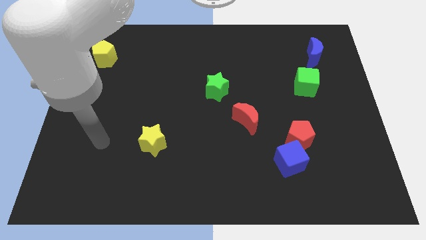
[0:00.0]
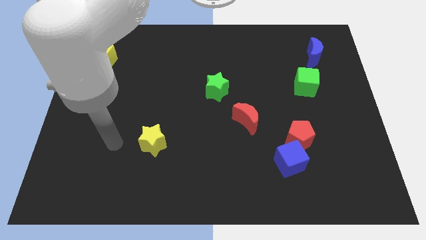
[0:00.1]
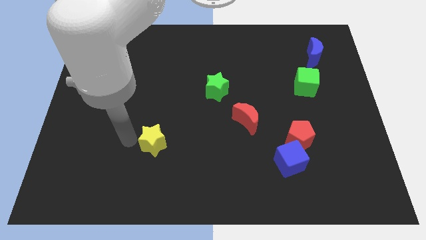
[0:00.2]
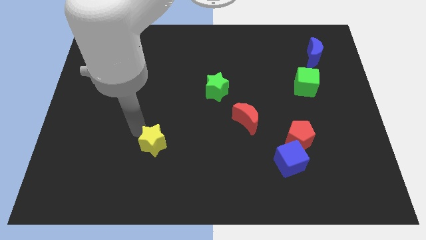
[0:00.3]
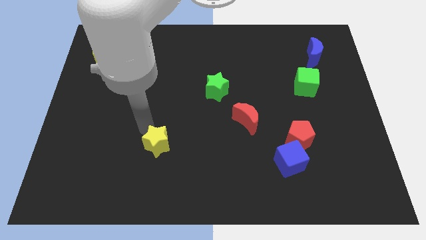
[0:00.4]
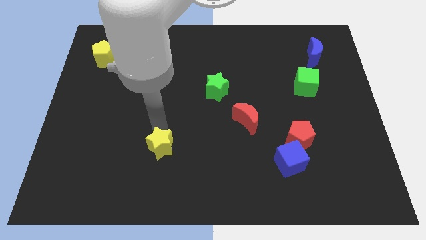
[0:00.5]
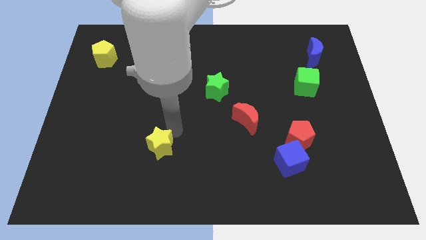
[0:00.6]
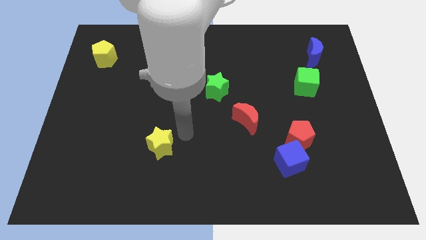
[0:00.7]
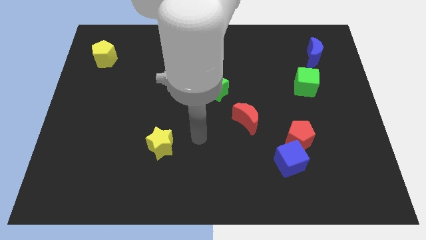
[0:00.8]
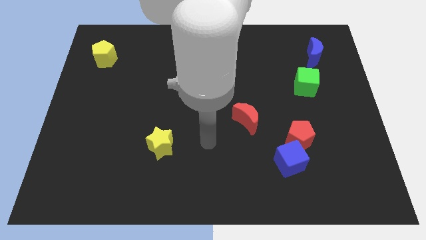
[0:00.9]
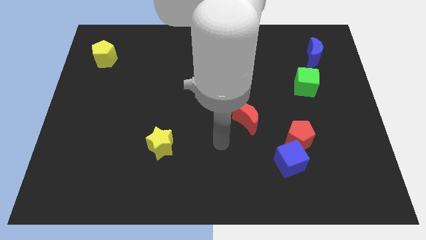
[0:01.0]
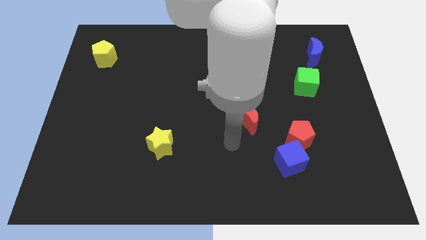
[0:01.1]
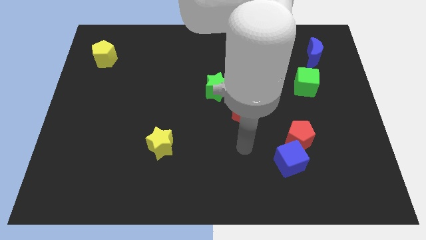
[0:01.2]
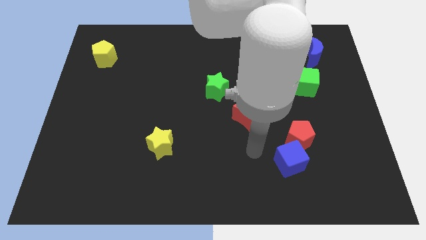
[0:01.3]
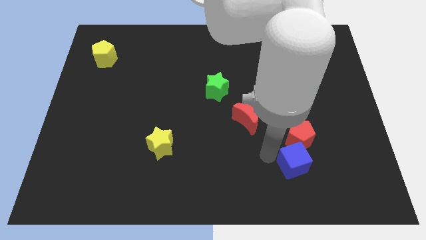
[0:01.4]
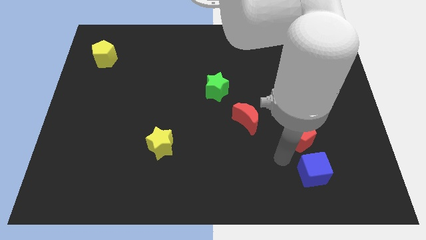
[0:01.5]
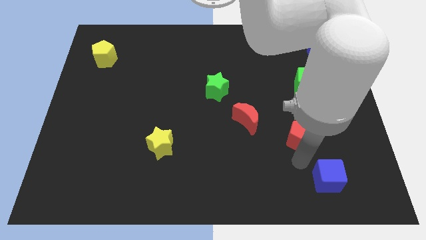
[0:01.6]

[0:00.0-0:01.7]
pull the red pentagon apart from the blue cube

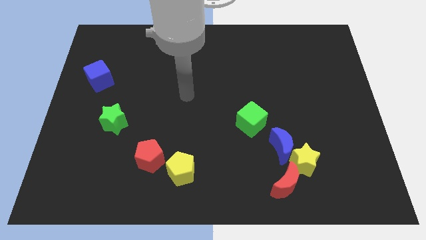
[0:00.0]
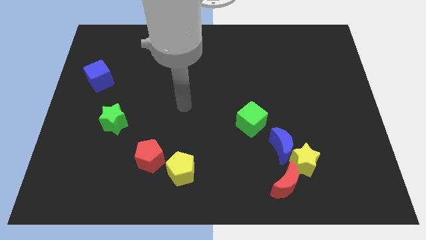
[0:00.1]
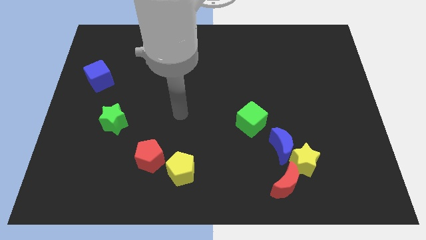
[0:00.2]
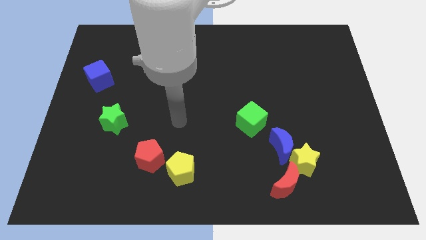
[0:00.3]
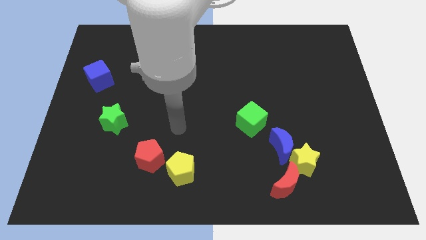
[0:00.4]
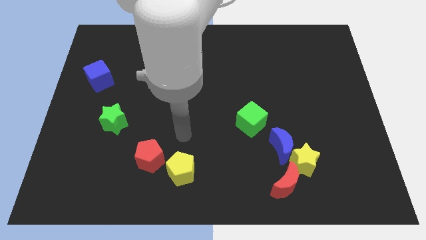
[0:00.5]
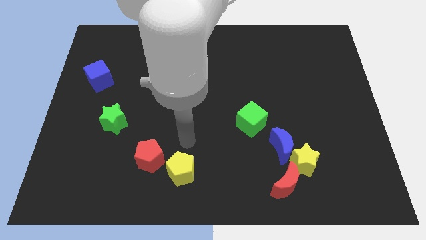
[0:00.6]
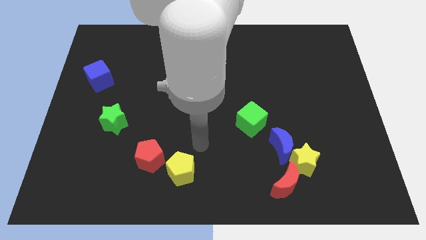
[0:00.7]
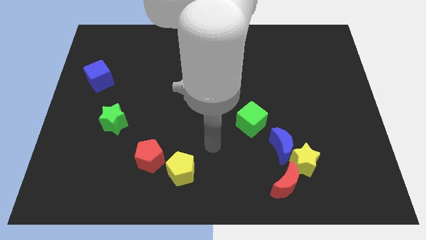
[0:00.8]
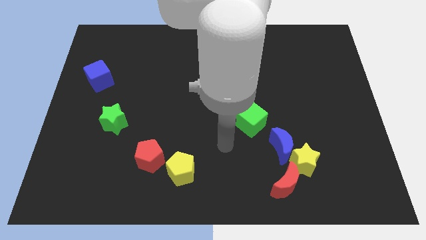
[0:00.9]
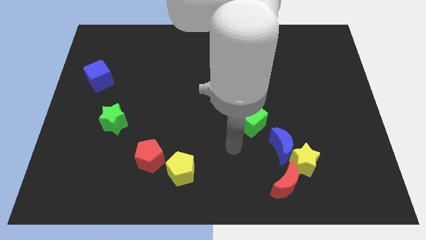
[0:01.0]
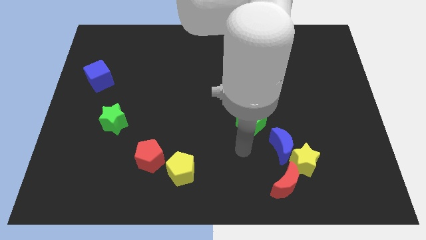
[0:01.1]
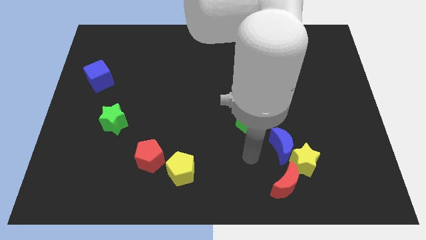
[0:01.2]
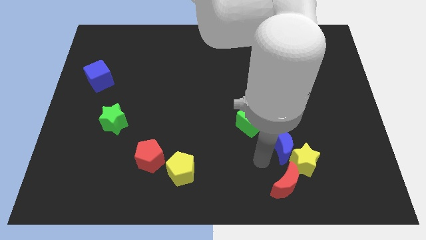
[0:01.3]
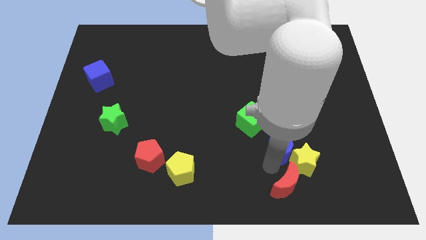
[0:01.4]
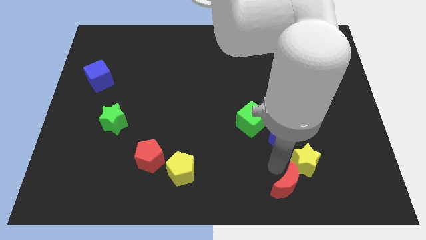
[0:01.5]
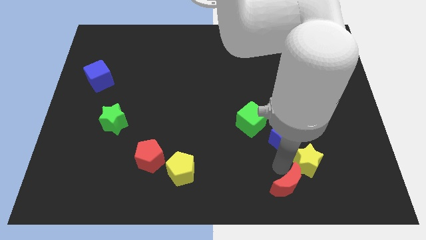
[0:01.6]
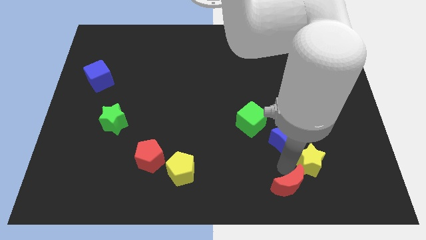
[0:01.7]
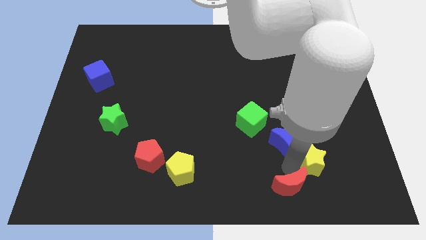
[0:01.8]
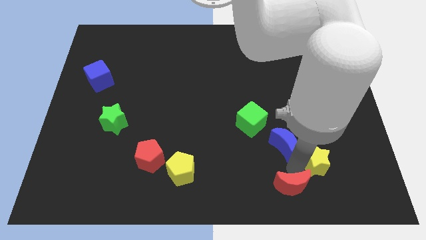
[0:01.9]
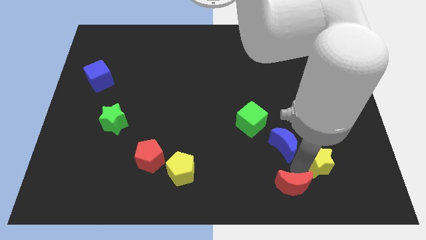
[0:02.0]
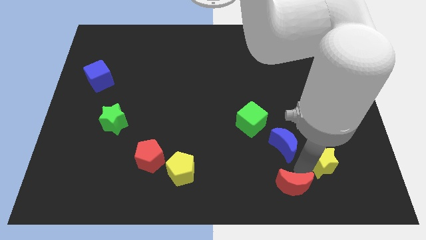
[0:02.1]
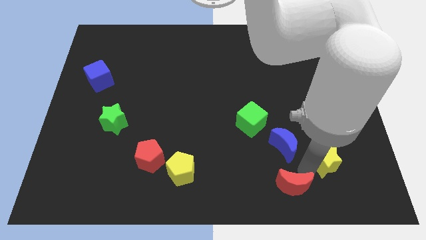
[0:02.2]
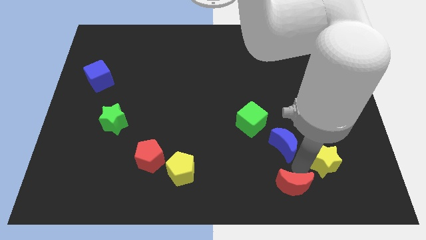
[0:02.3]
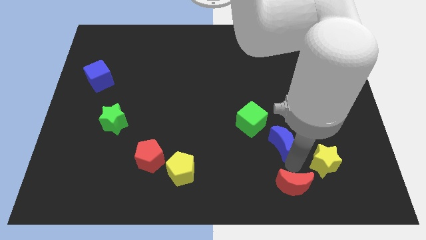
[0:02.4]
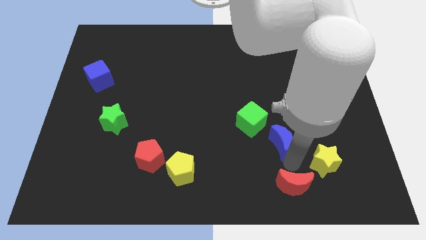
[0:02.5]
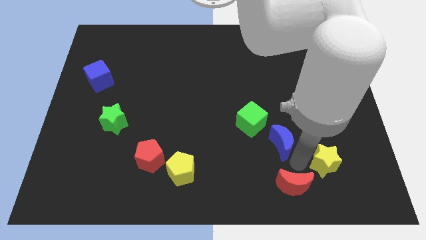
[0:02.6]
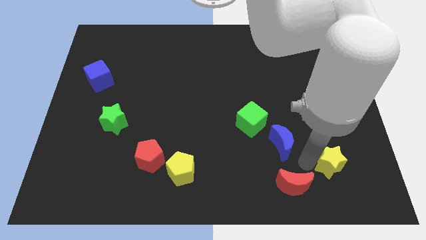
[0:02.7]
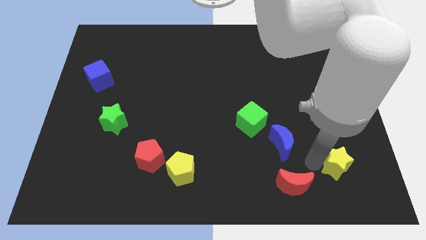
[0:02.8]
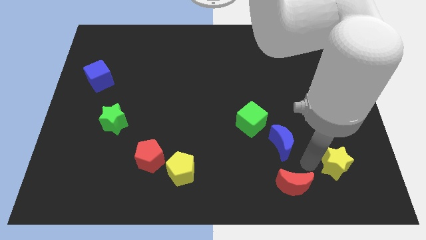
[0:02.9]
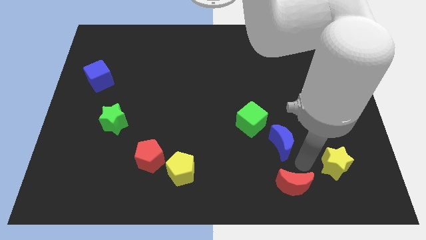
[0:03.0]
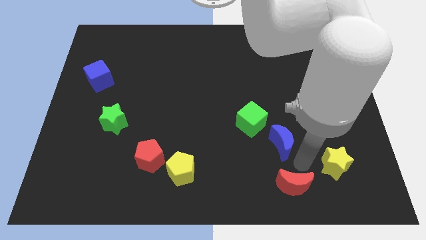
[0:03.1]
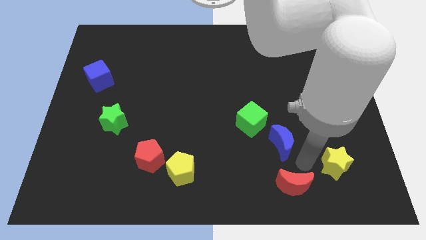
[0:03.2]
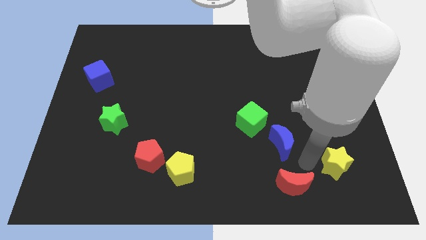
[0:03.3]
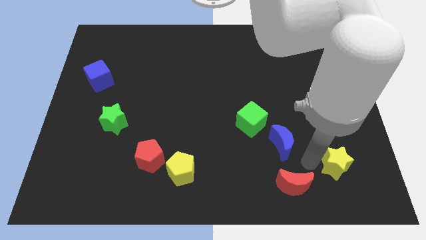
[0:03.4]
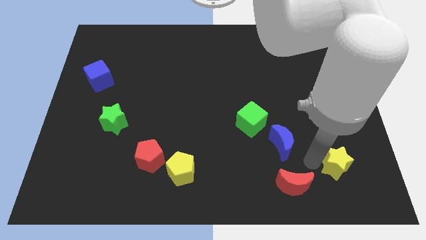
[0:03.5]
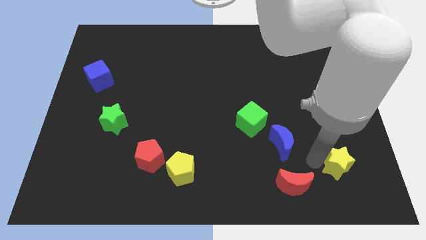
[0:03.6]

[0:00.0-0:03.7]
move the yellow star away from the blue moon and red moon

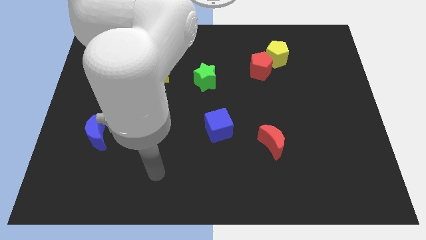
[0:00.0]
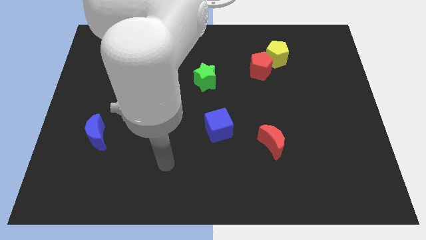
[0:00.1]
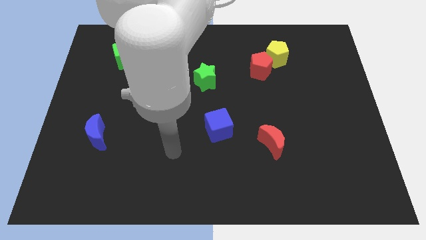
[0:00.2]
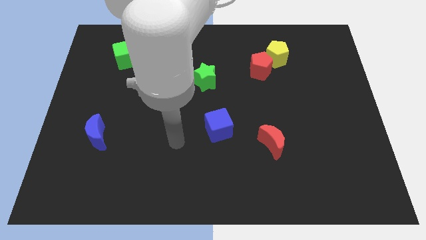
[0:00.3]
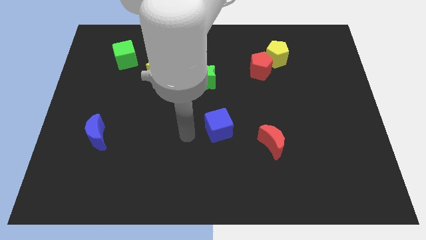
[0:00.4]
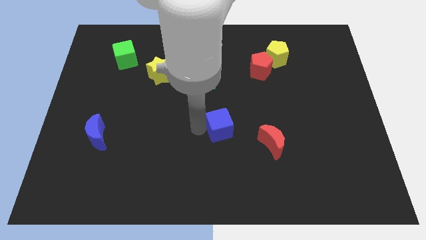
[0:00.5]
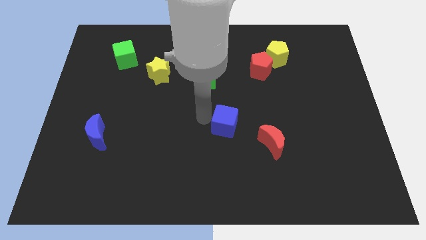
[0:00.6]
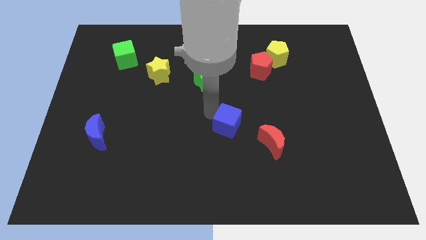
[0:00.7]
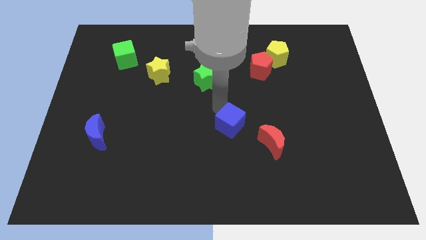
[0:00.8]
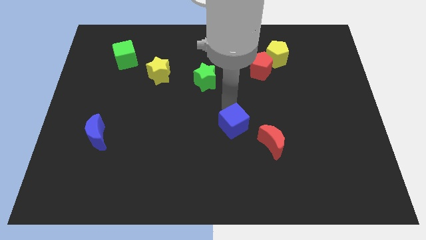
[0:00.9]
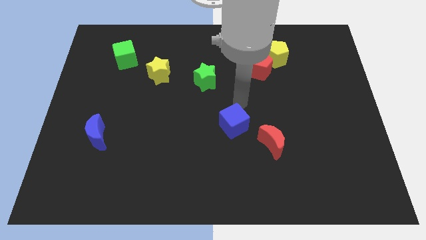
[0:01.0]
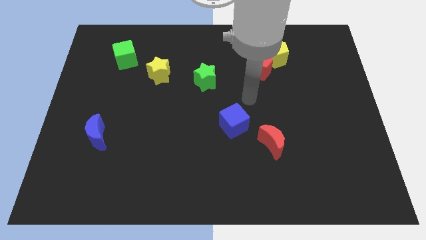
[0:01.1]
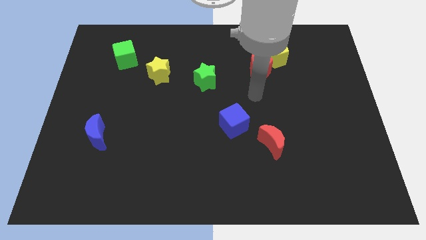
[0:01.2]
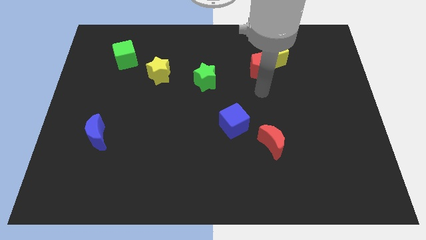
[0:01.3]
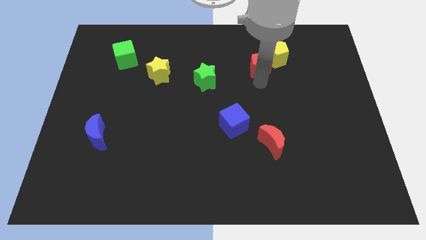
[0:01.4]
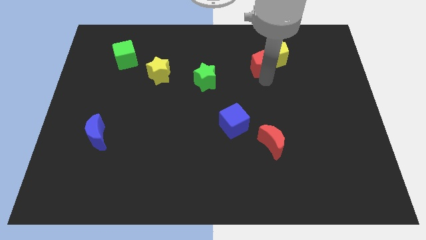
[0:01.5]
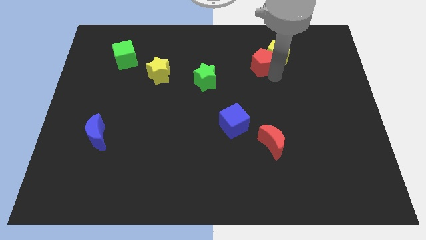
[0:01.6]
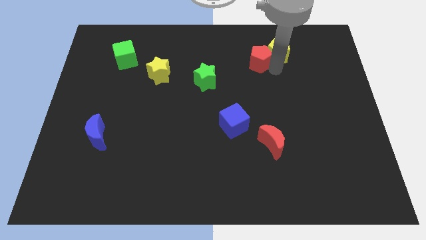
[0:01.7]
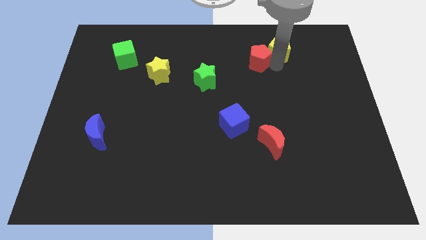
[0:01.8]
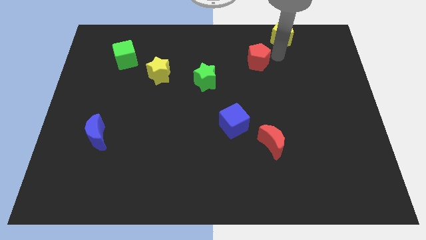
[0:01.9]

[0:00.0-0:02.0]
separate the red pentagon from the yellow pentagon

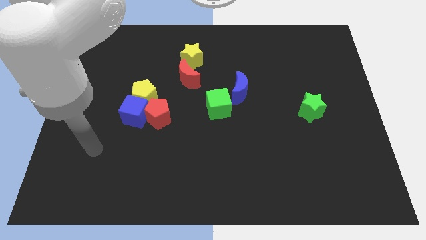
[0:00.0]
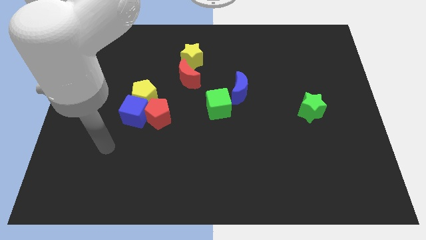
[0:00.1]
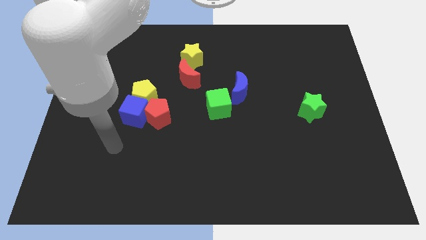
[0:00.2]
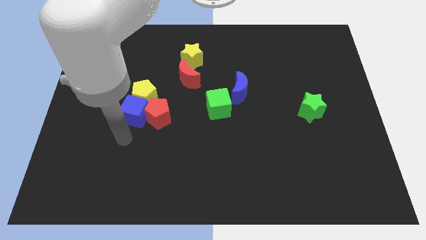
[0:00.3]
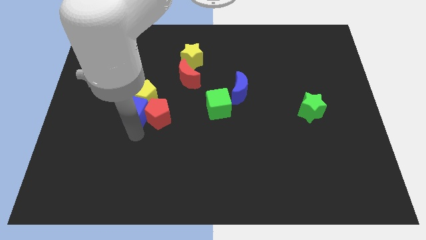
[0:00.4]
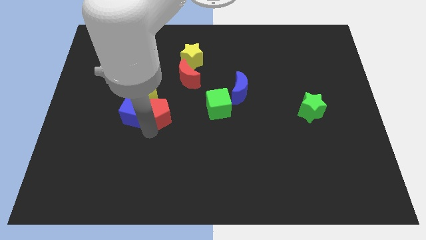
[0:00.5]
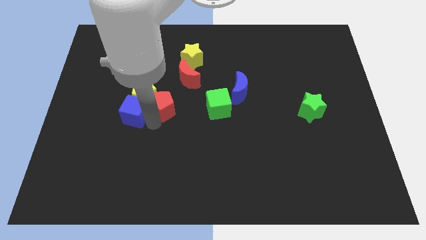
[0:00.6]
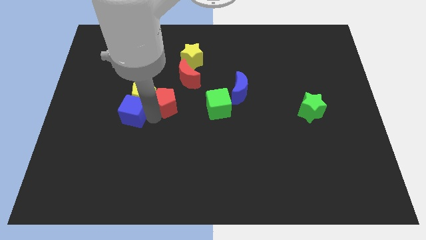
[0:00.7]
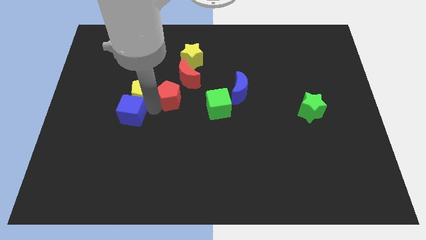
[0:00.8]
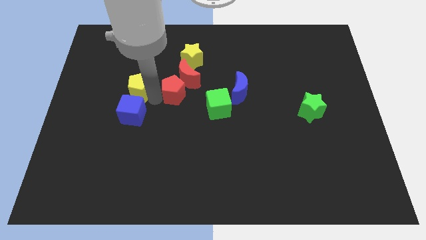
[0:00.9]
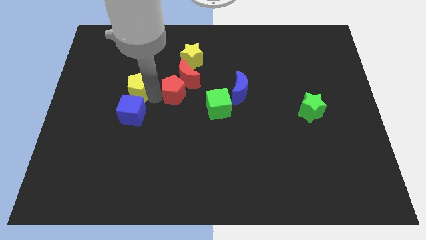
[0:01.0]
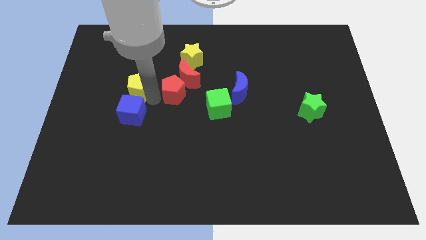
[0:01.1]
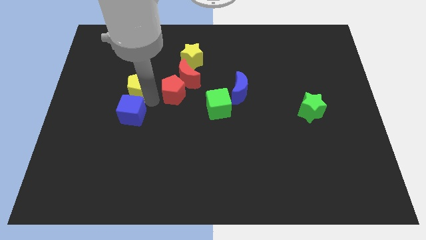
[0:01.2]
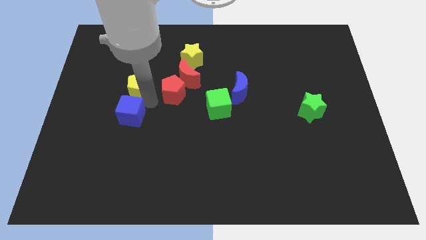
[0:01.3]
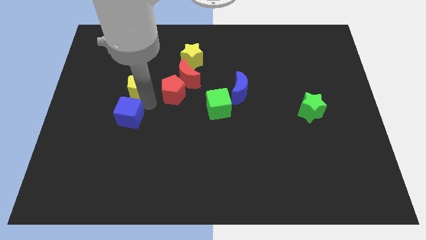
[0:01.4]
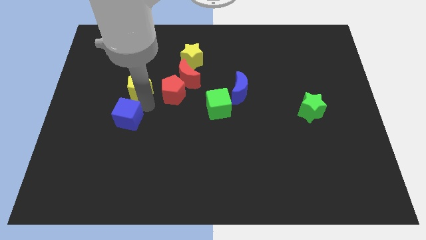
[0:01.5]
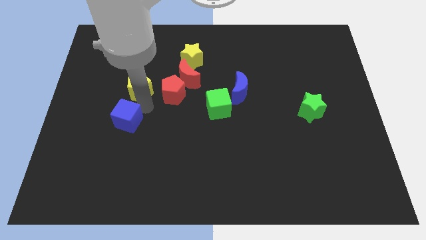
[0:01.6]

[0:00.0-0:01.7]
move the blue cube away from the yellow pentagon and red pentagon

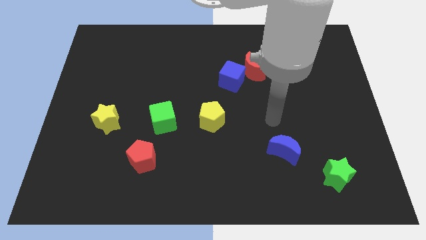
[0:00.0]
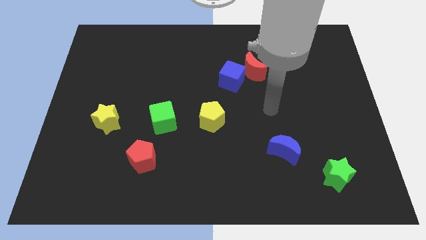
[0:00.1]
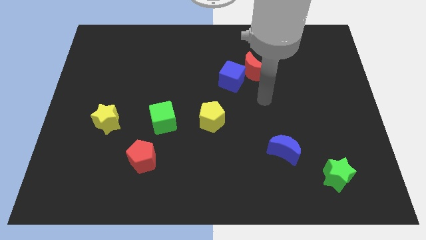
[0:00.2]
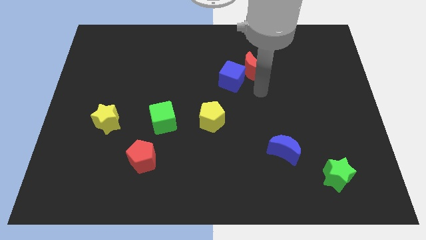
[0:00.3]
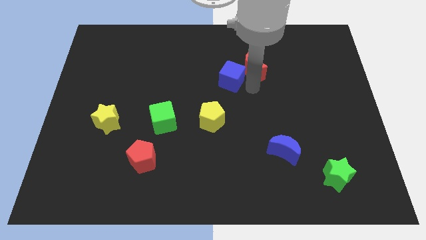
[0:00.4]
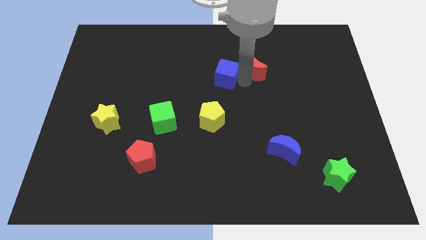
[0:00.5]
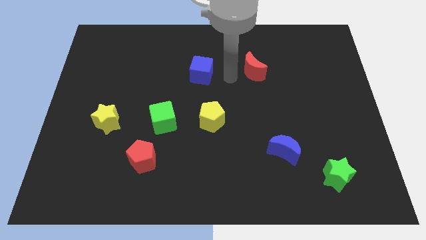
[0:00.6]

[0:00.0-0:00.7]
move the red moon away from the blue cube
